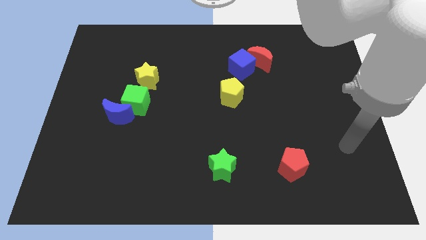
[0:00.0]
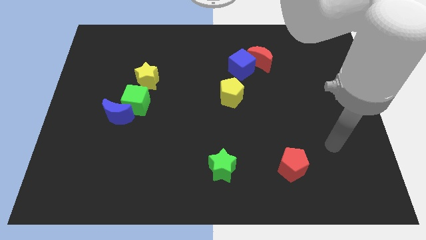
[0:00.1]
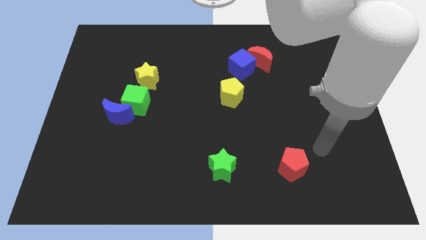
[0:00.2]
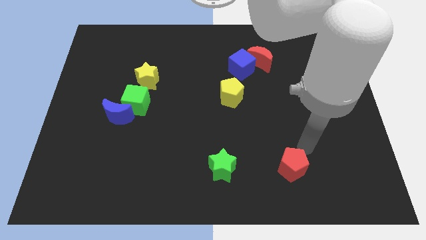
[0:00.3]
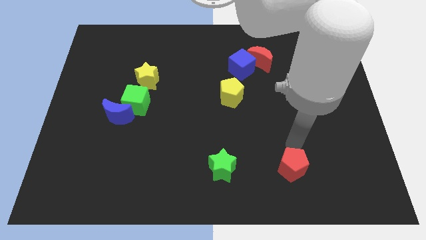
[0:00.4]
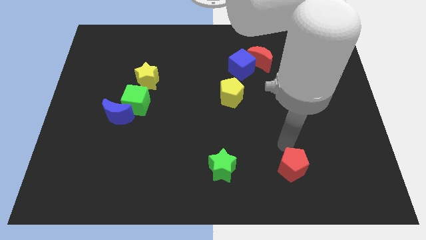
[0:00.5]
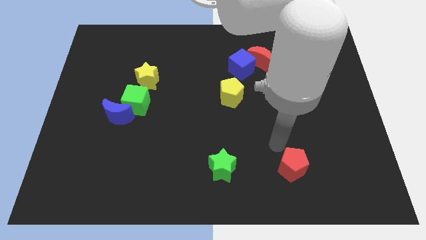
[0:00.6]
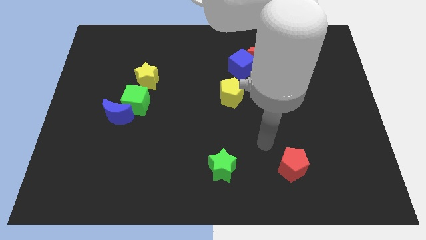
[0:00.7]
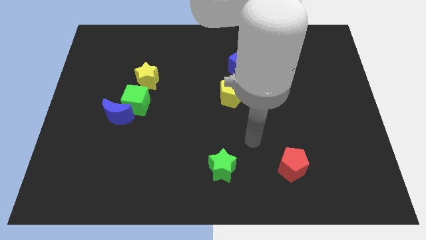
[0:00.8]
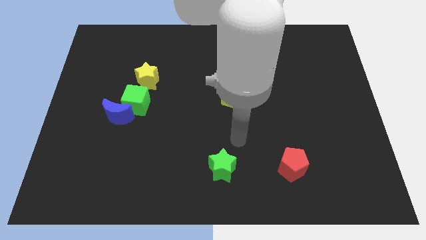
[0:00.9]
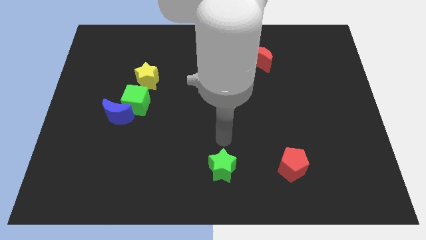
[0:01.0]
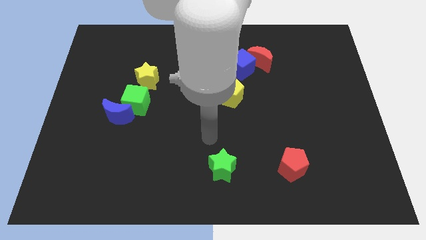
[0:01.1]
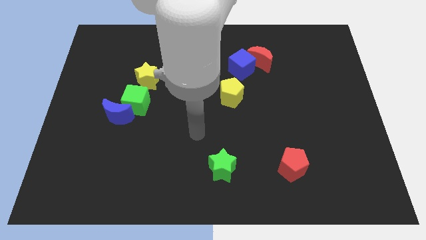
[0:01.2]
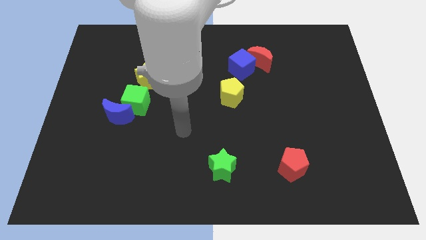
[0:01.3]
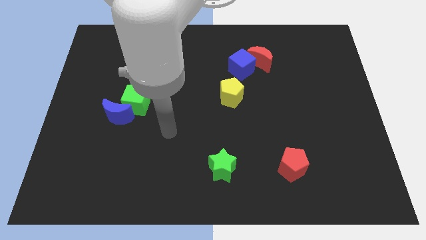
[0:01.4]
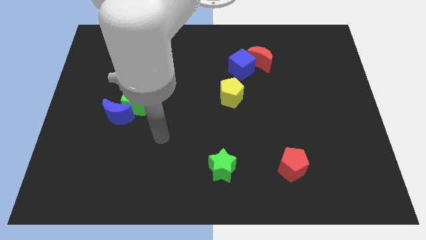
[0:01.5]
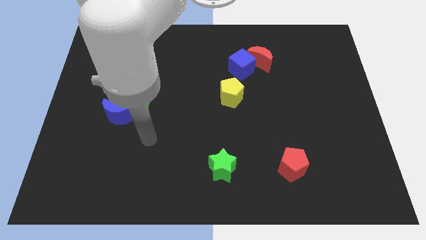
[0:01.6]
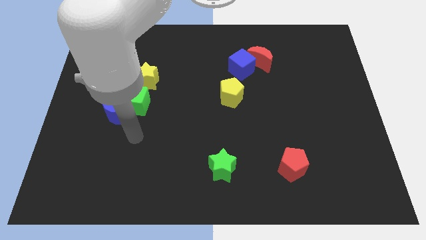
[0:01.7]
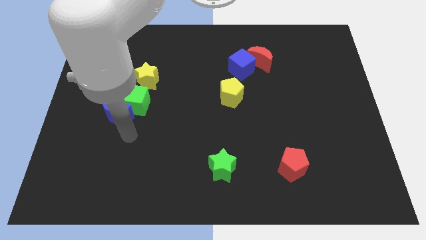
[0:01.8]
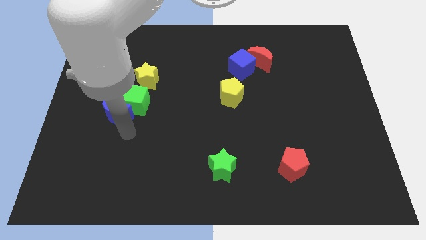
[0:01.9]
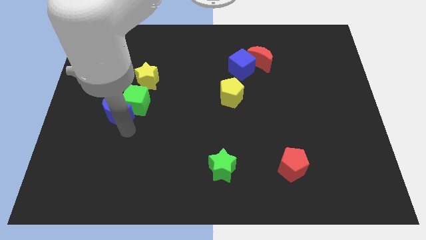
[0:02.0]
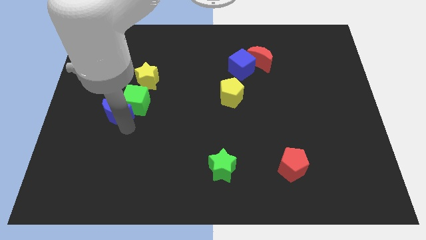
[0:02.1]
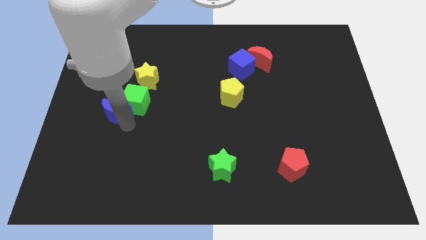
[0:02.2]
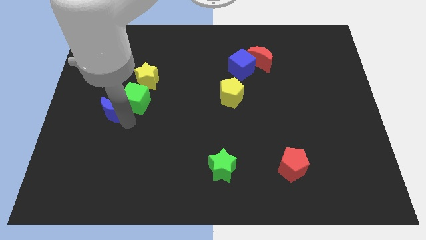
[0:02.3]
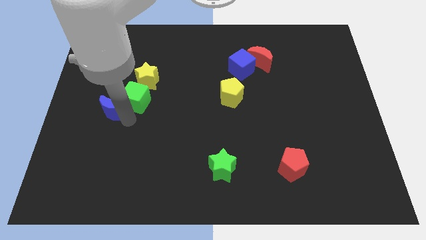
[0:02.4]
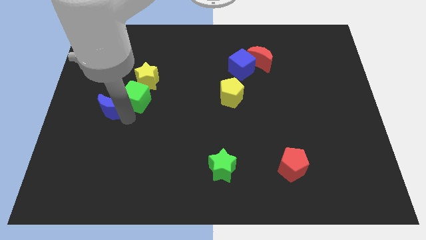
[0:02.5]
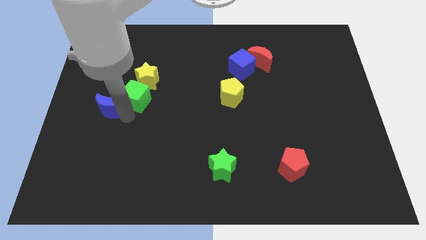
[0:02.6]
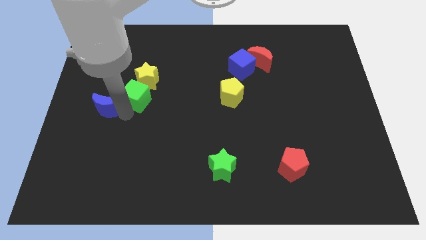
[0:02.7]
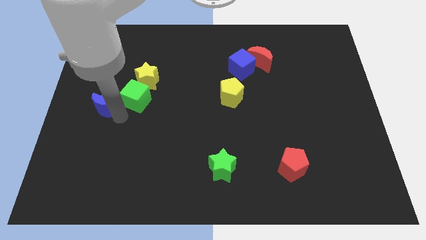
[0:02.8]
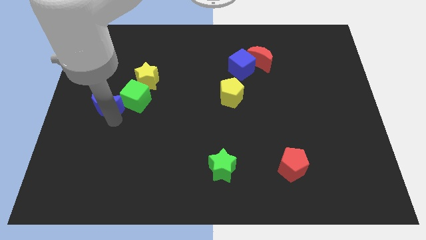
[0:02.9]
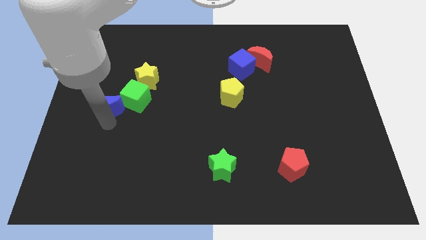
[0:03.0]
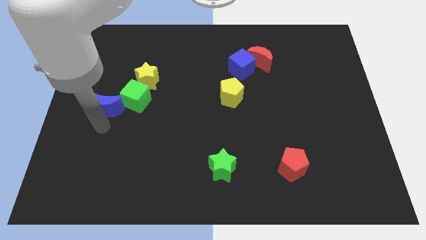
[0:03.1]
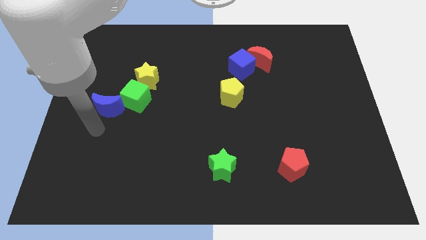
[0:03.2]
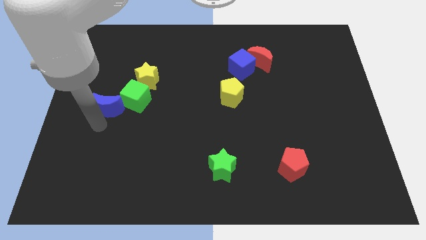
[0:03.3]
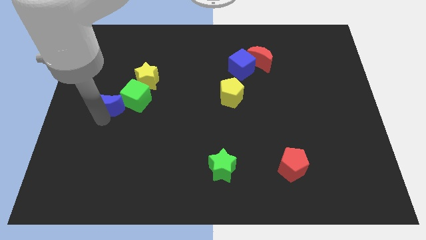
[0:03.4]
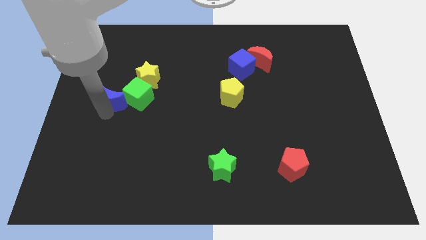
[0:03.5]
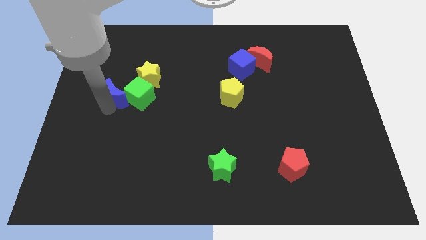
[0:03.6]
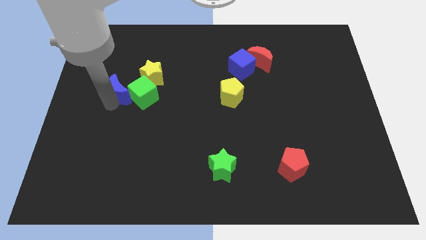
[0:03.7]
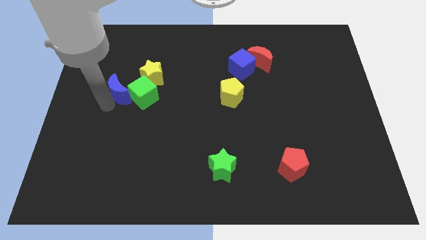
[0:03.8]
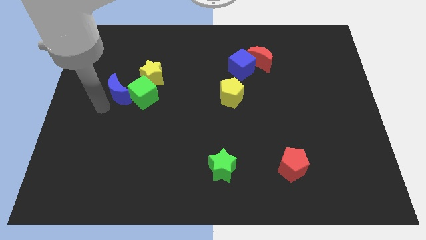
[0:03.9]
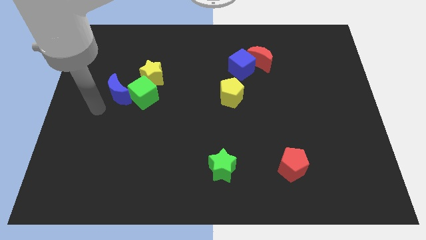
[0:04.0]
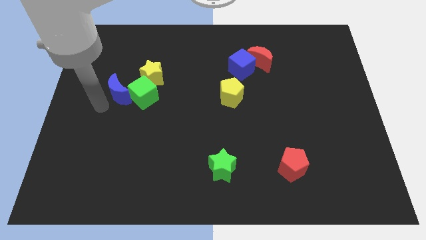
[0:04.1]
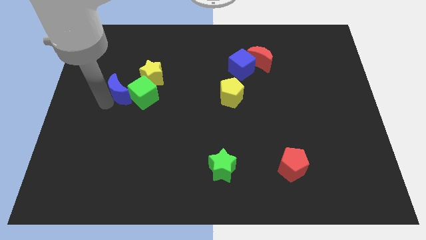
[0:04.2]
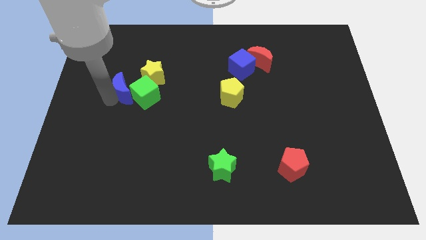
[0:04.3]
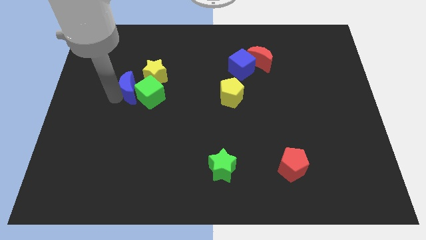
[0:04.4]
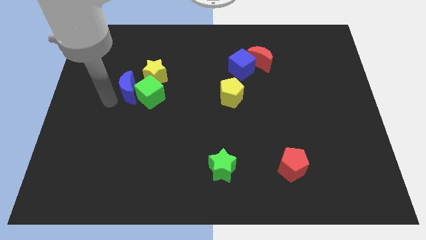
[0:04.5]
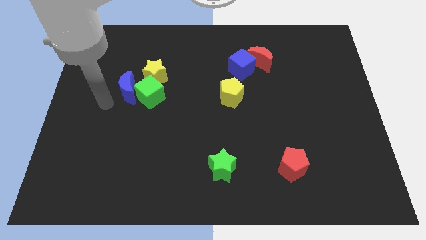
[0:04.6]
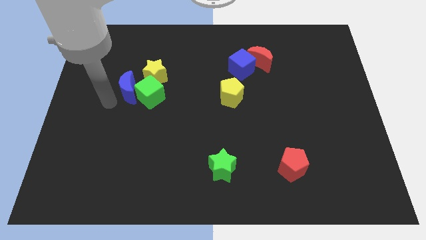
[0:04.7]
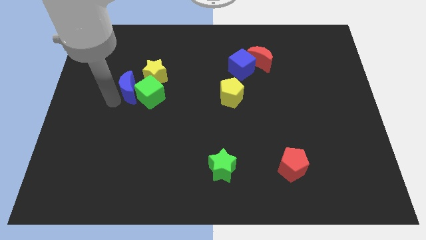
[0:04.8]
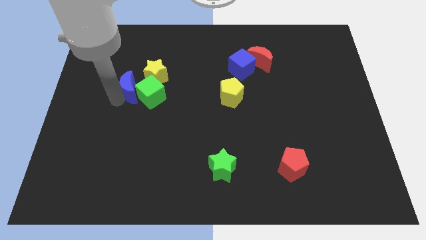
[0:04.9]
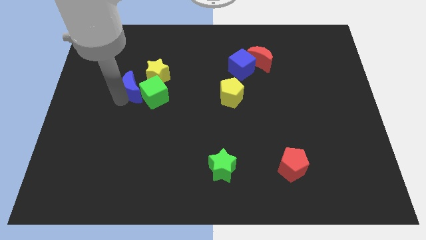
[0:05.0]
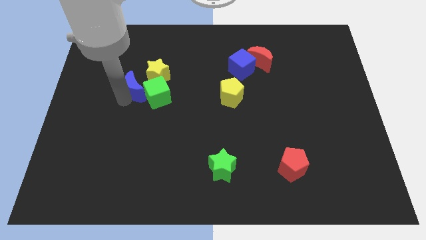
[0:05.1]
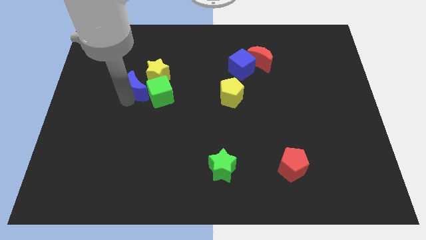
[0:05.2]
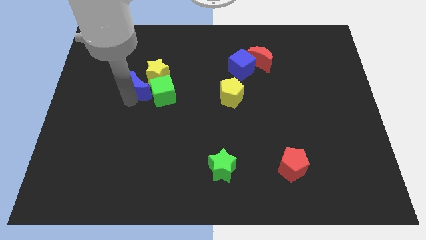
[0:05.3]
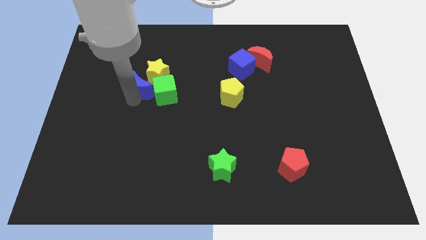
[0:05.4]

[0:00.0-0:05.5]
put the blue moon next to the yellow star
